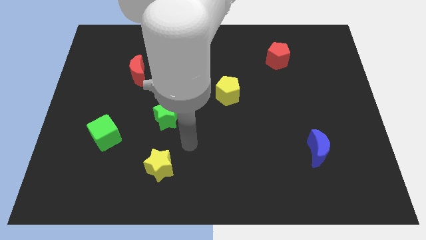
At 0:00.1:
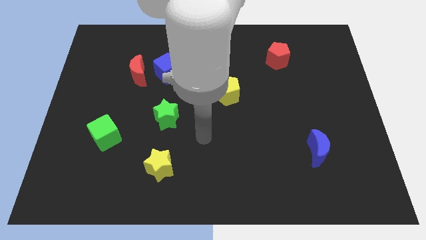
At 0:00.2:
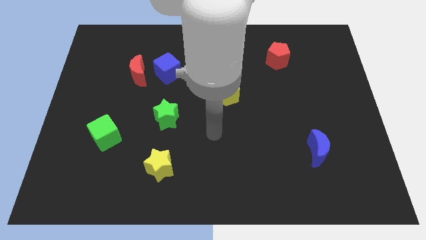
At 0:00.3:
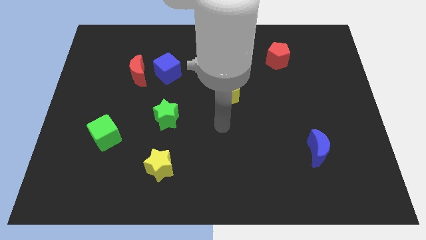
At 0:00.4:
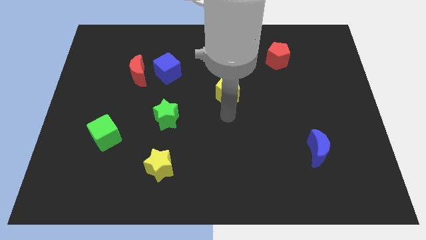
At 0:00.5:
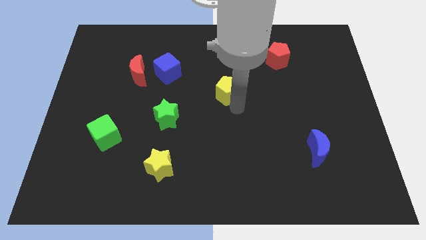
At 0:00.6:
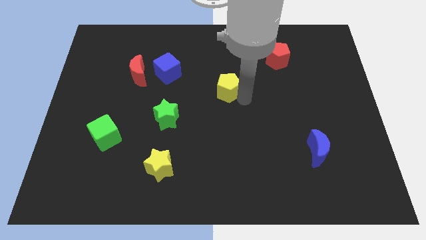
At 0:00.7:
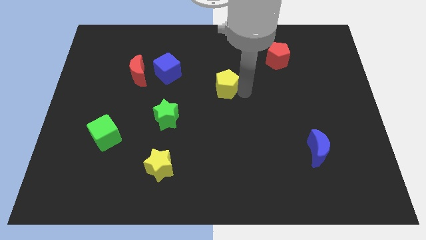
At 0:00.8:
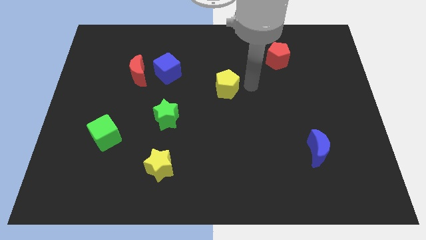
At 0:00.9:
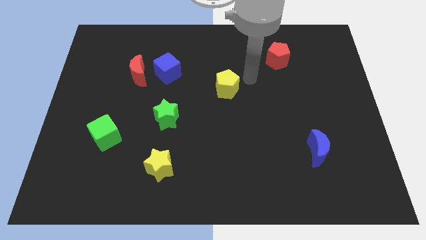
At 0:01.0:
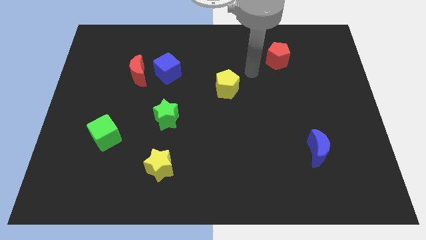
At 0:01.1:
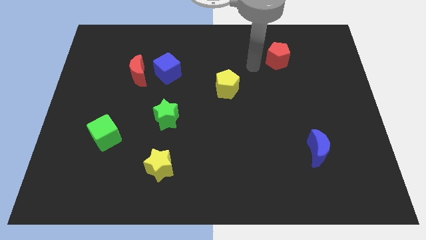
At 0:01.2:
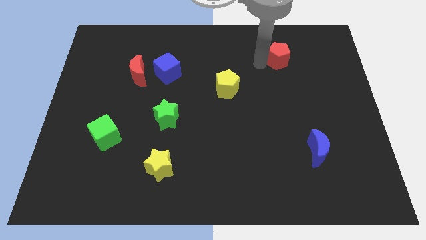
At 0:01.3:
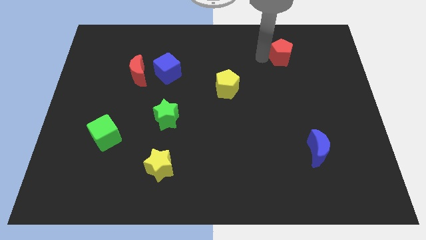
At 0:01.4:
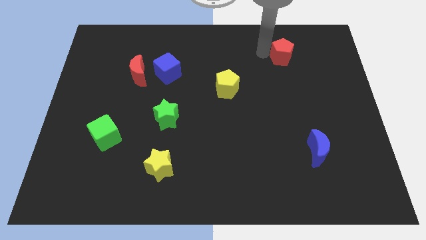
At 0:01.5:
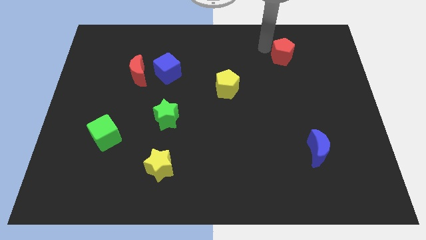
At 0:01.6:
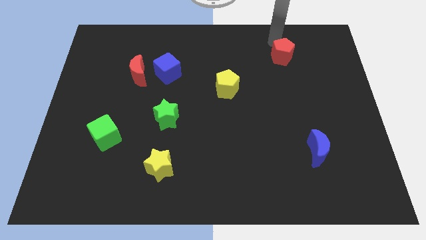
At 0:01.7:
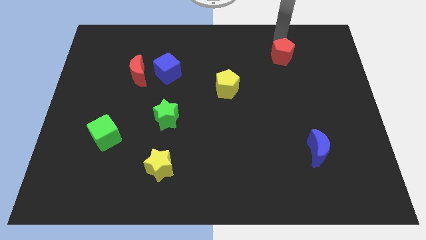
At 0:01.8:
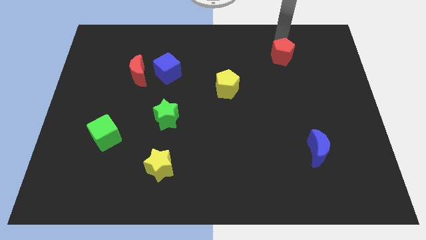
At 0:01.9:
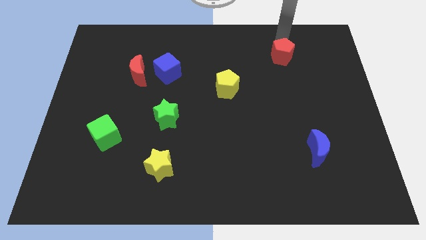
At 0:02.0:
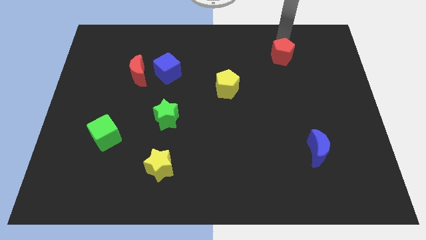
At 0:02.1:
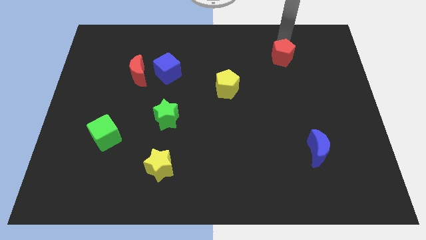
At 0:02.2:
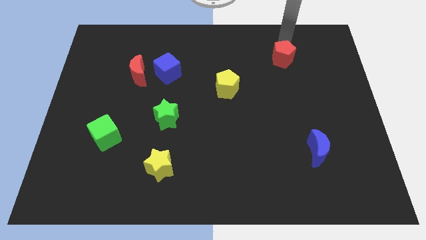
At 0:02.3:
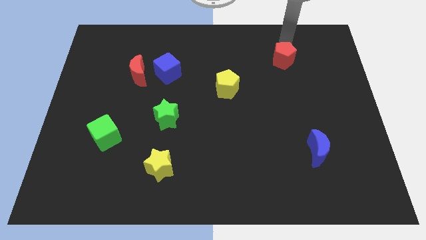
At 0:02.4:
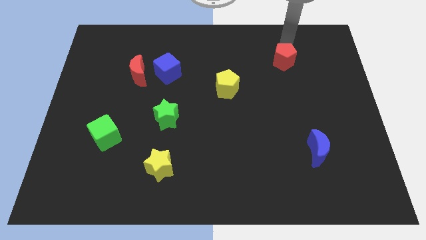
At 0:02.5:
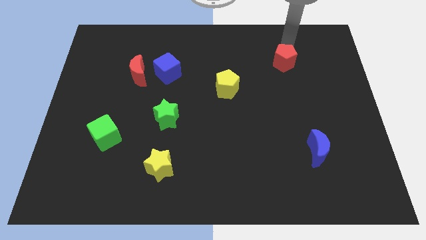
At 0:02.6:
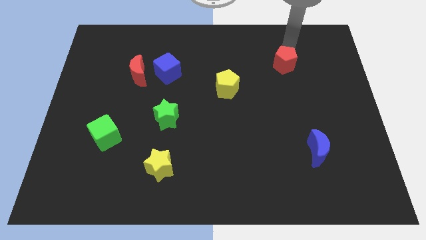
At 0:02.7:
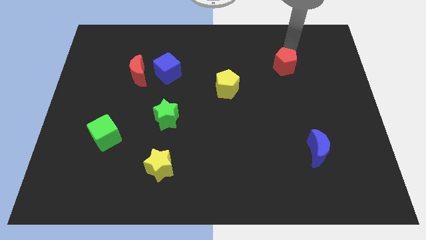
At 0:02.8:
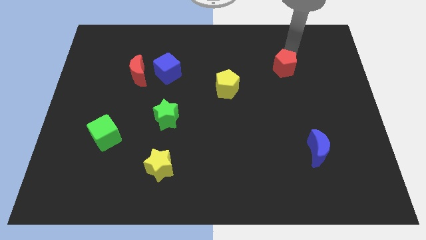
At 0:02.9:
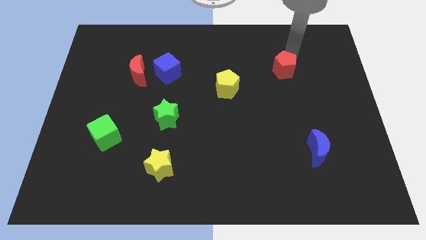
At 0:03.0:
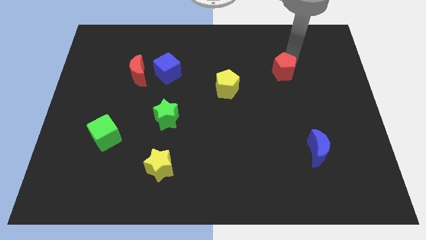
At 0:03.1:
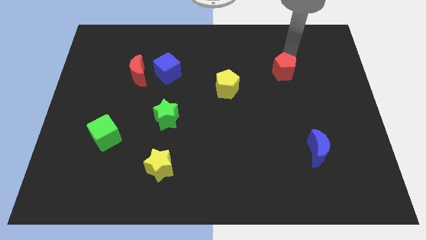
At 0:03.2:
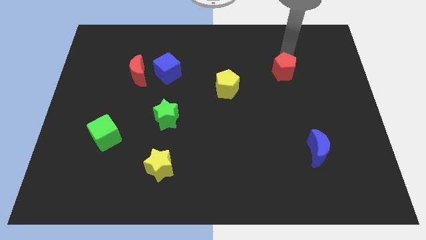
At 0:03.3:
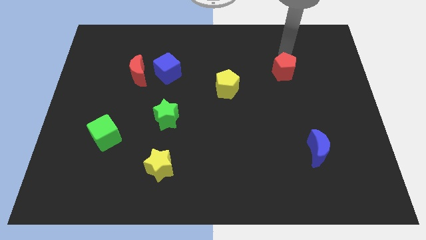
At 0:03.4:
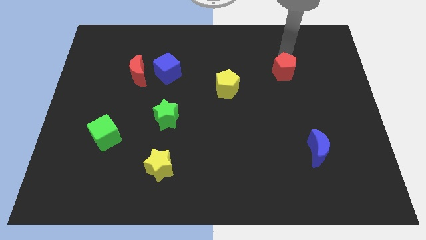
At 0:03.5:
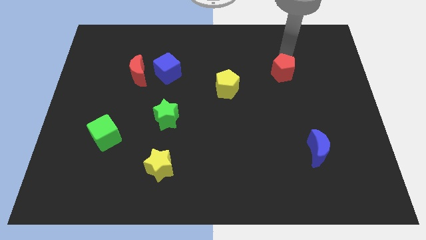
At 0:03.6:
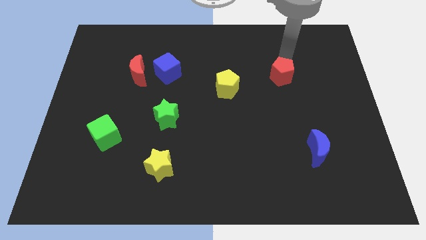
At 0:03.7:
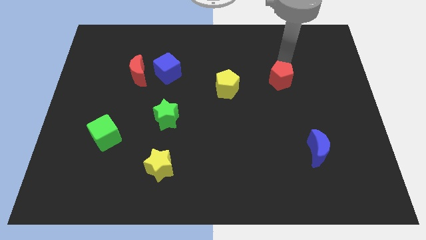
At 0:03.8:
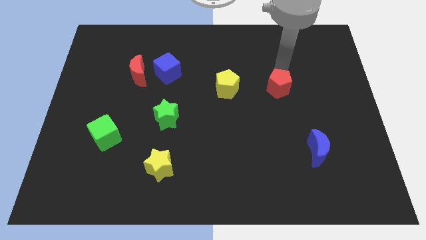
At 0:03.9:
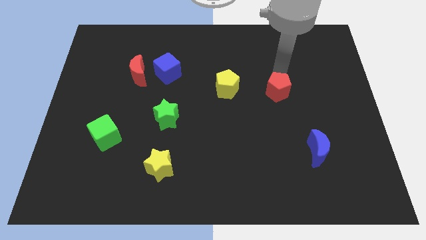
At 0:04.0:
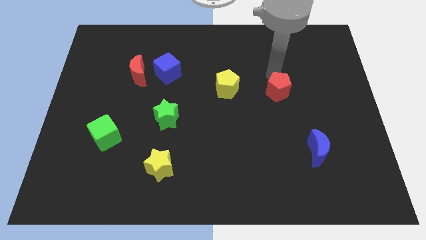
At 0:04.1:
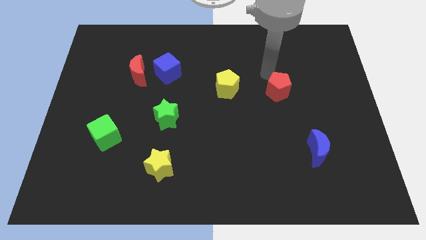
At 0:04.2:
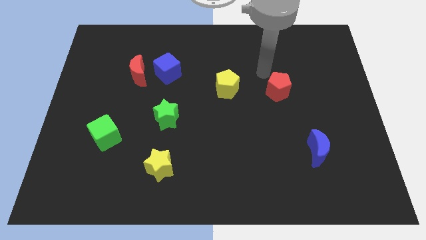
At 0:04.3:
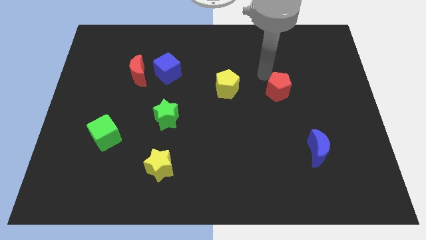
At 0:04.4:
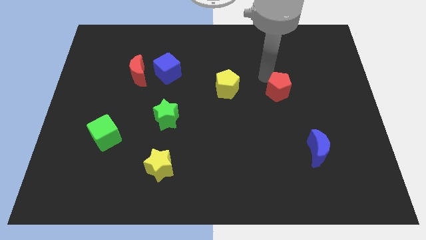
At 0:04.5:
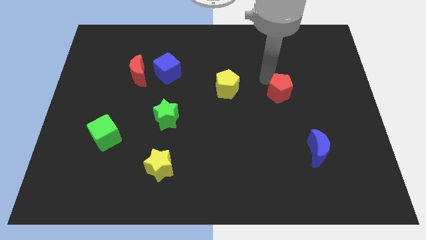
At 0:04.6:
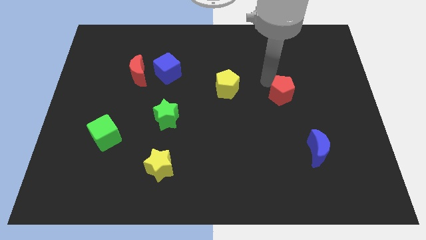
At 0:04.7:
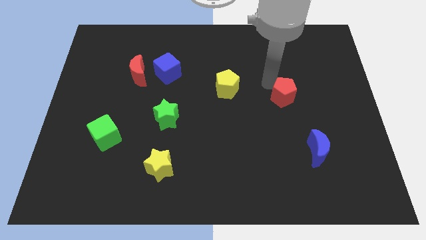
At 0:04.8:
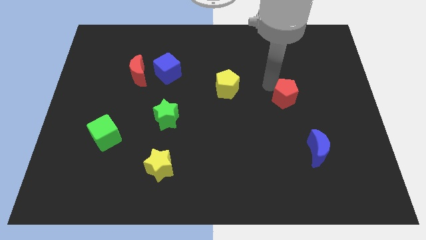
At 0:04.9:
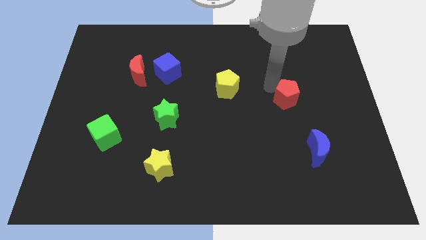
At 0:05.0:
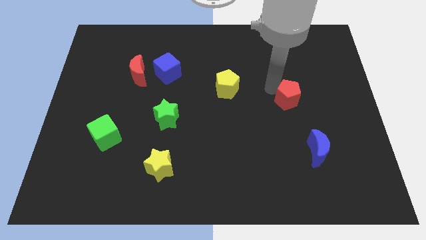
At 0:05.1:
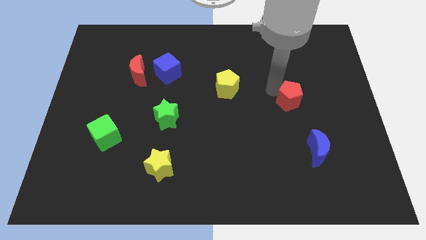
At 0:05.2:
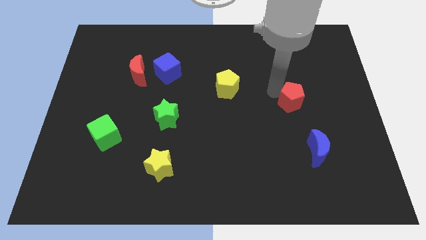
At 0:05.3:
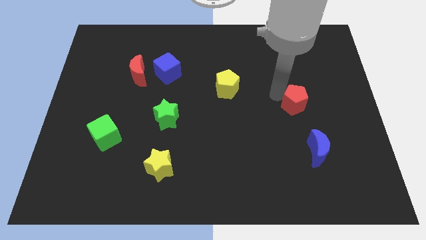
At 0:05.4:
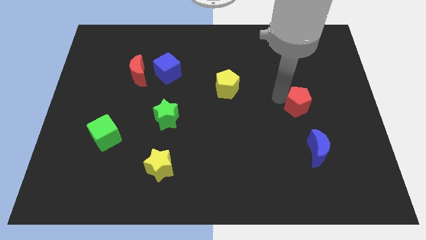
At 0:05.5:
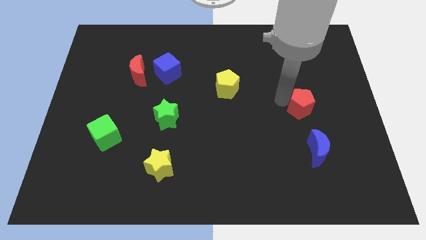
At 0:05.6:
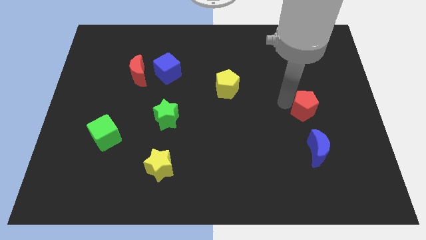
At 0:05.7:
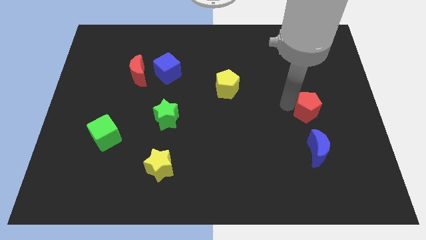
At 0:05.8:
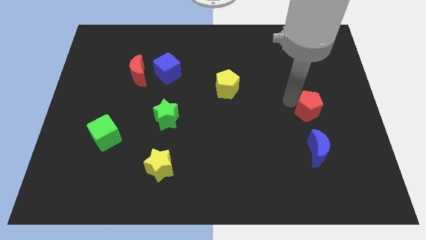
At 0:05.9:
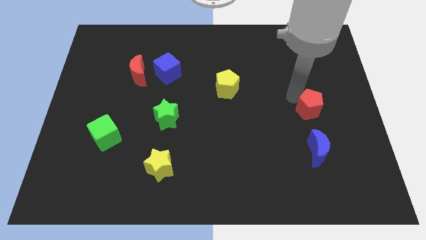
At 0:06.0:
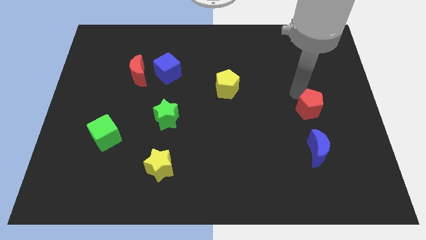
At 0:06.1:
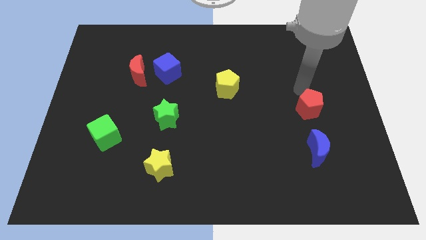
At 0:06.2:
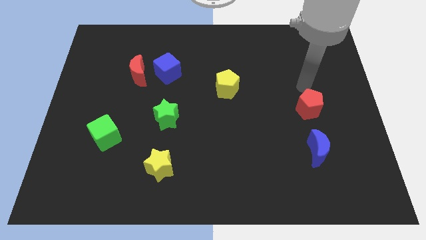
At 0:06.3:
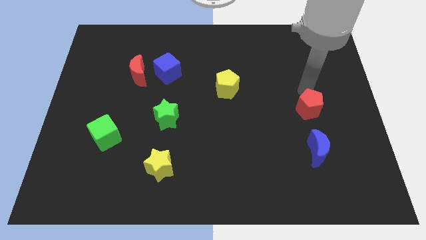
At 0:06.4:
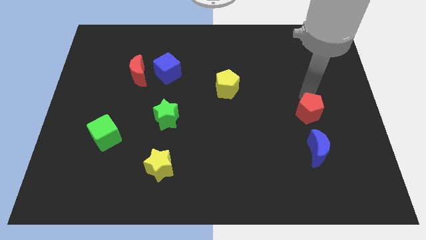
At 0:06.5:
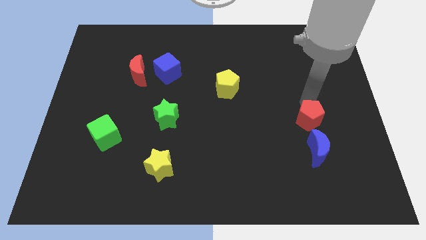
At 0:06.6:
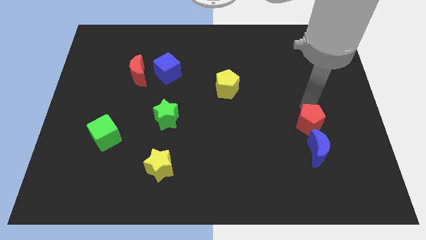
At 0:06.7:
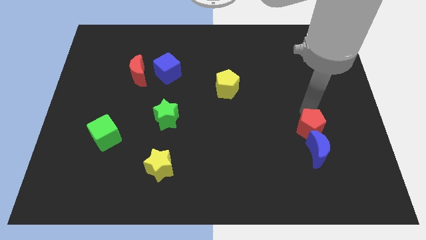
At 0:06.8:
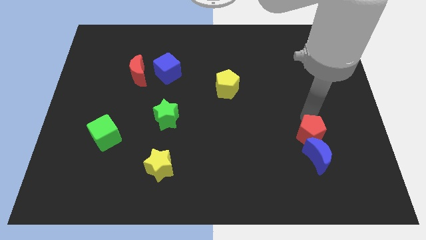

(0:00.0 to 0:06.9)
put the red pentagon close to the blue moon
